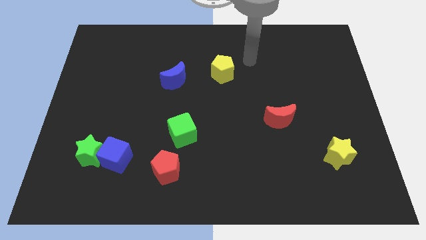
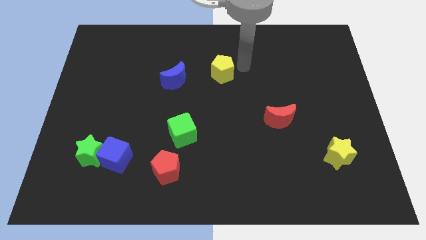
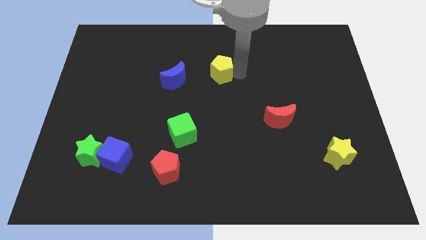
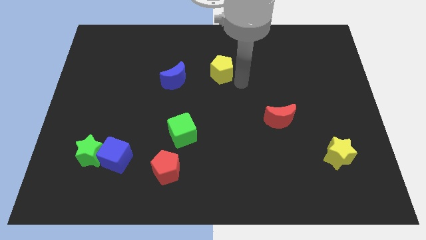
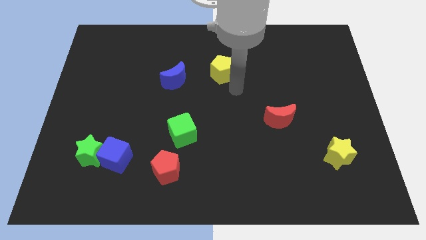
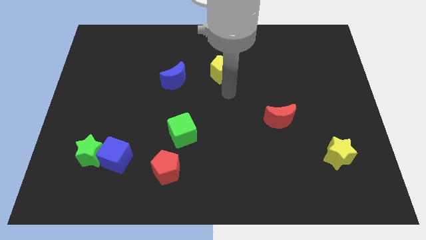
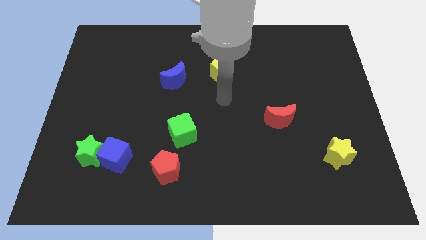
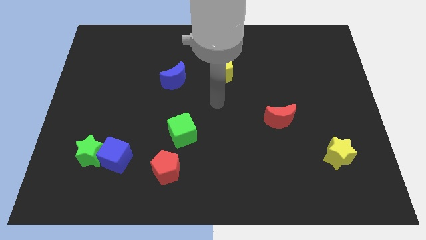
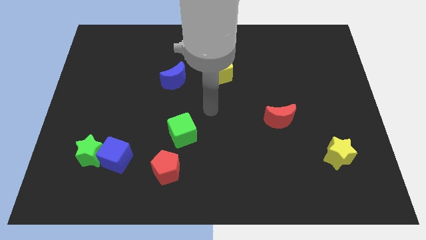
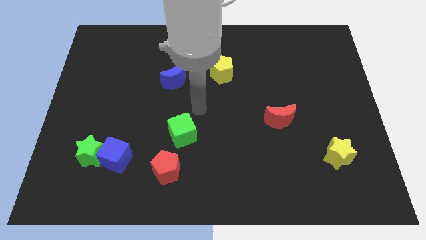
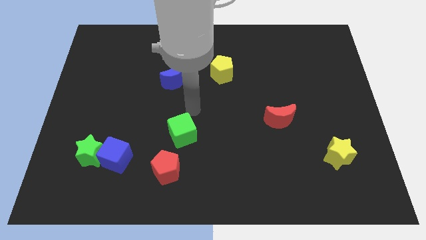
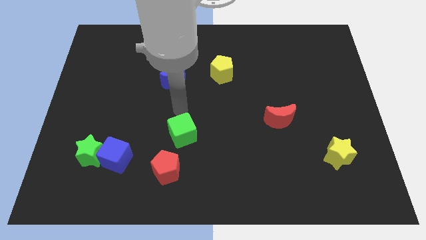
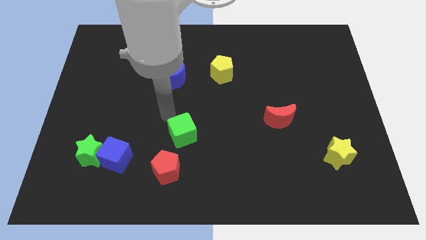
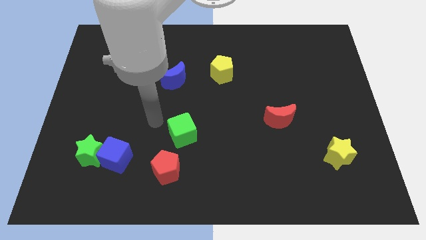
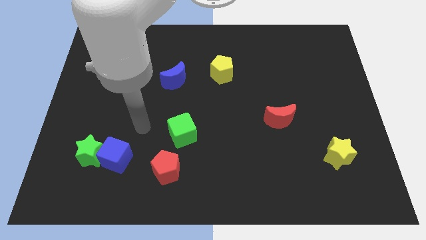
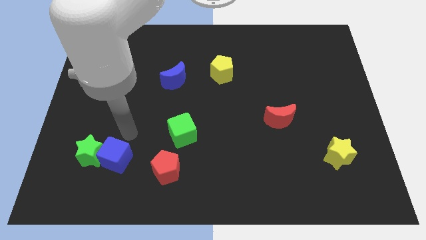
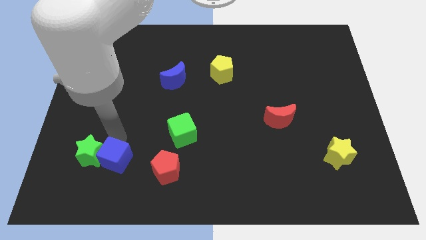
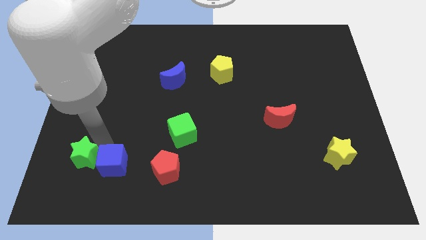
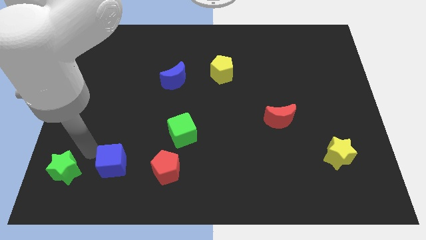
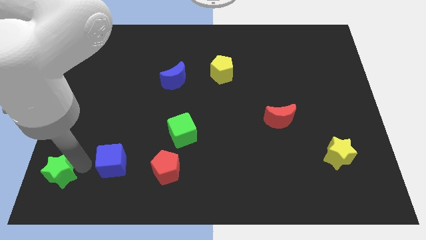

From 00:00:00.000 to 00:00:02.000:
pull the blue cube apart from the green star

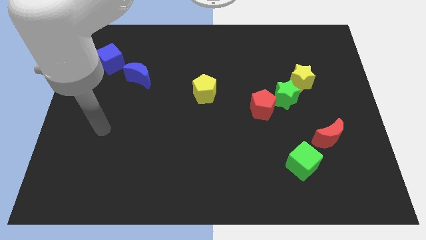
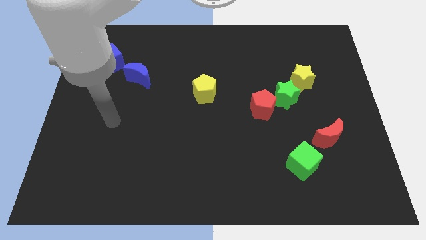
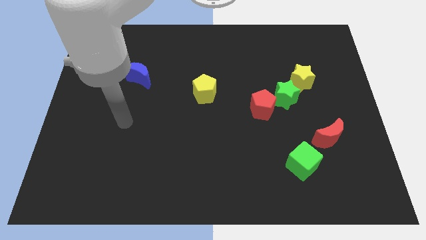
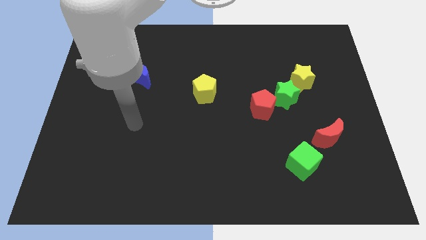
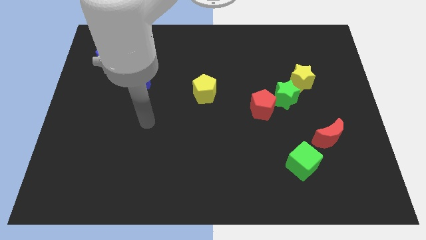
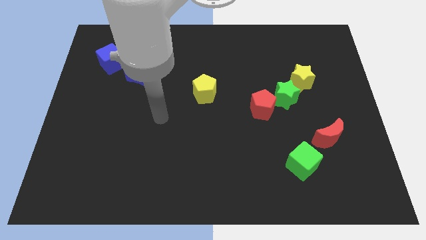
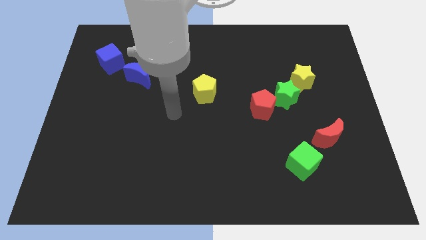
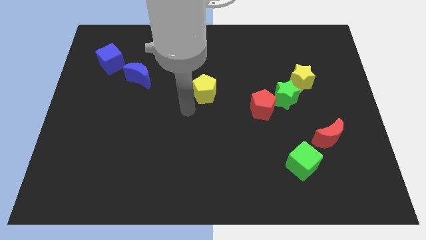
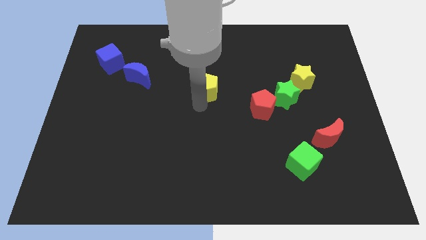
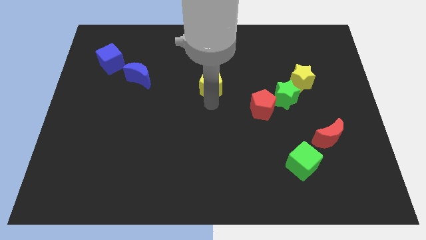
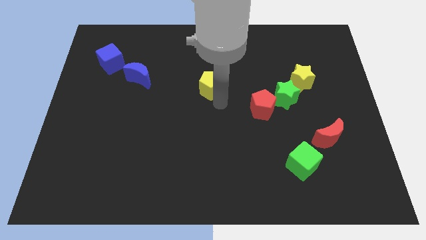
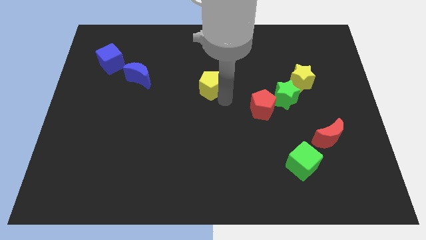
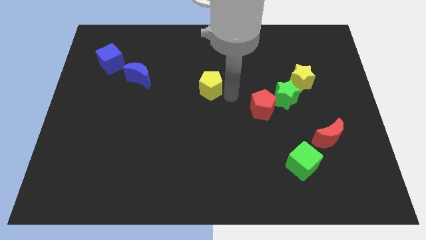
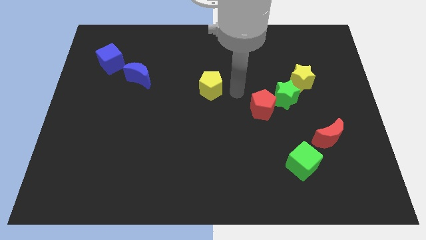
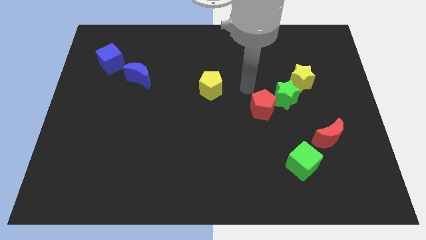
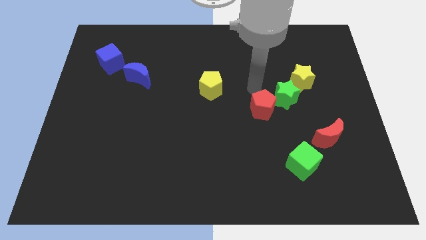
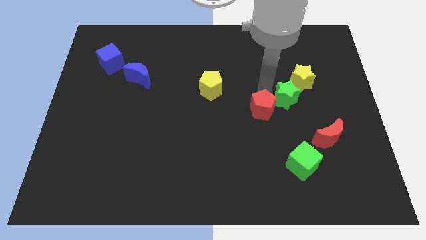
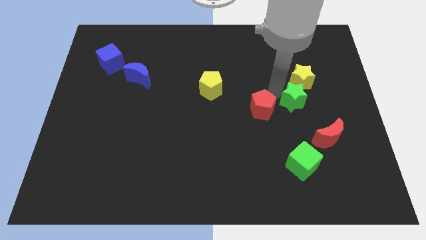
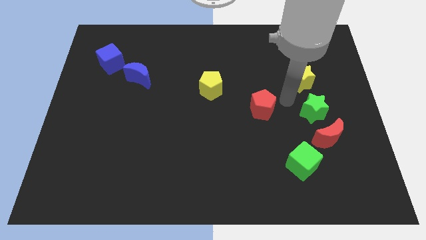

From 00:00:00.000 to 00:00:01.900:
move the red pentagon away from the green star

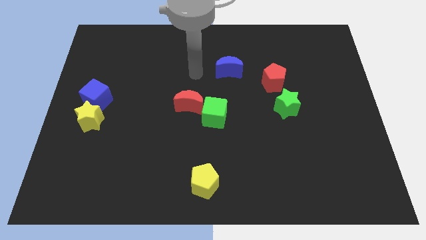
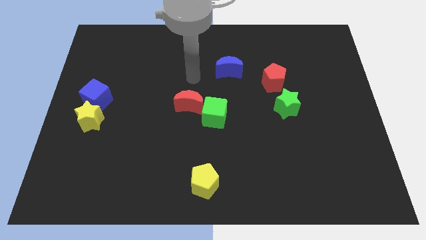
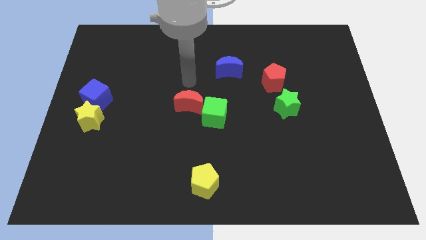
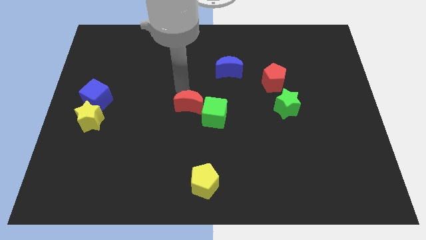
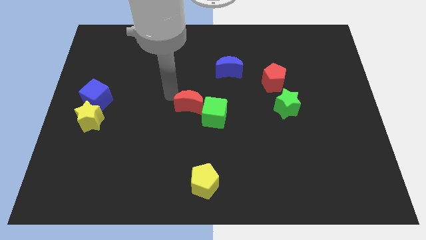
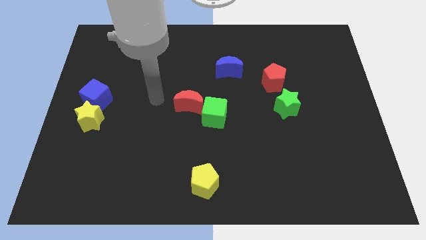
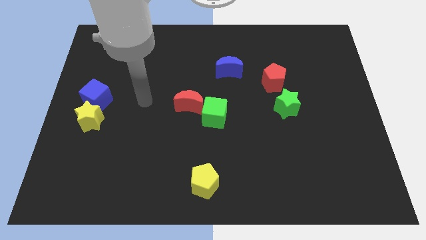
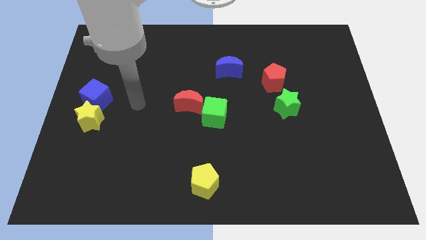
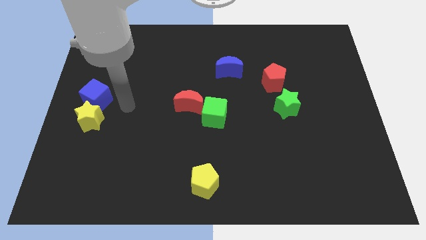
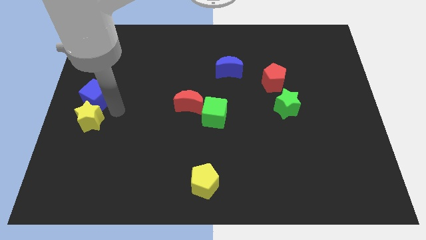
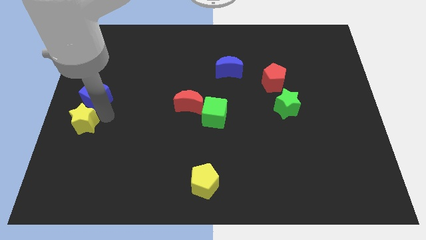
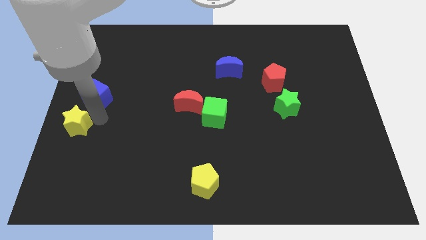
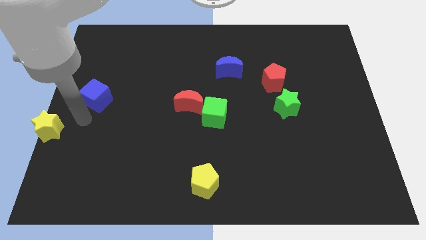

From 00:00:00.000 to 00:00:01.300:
separate the blue cube from the yellow star

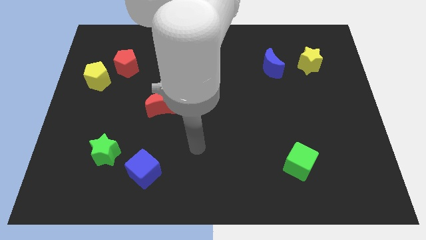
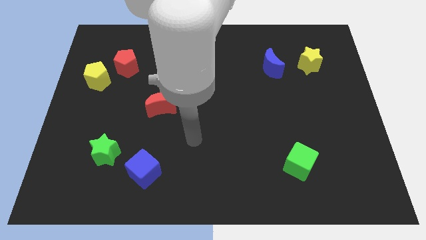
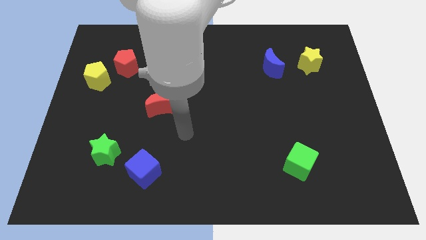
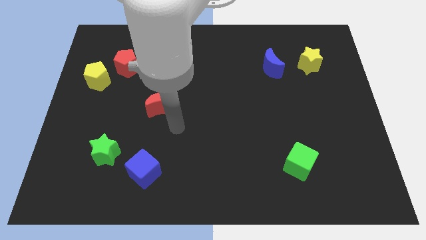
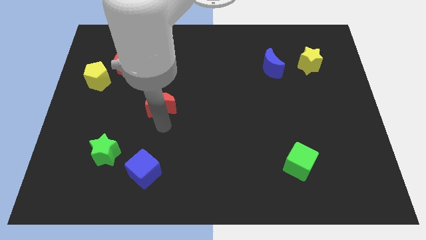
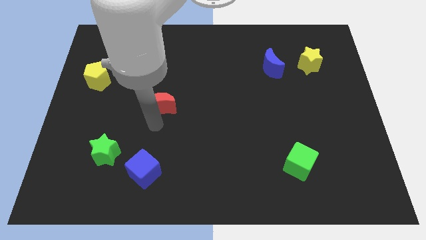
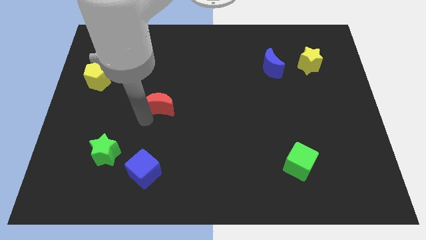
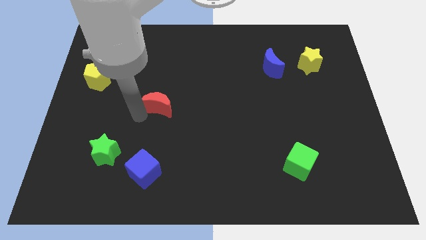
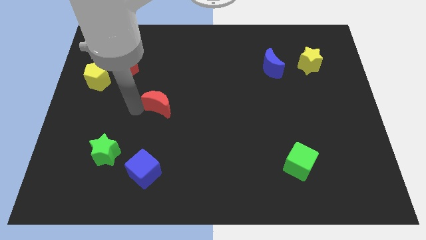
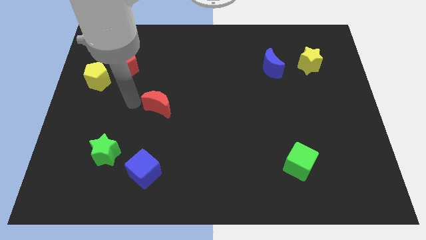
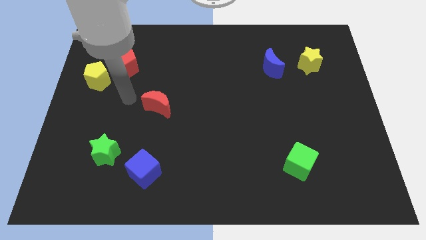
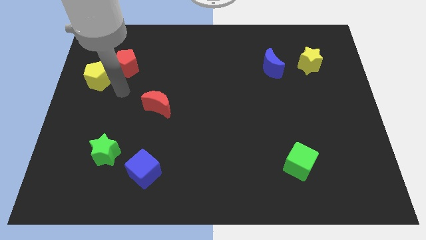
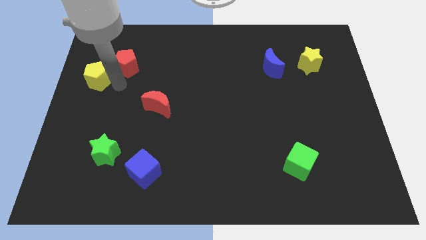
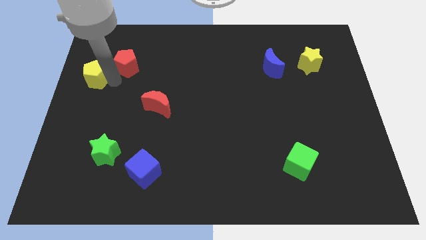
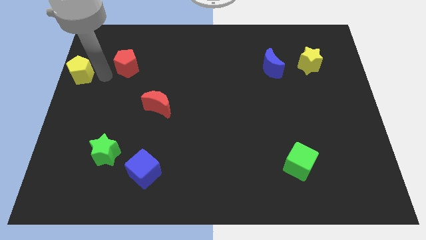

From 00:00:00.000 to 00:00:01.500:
move the red pentagon away from the yellow pentagon

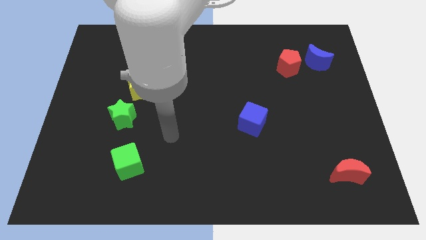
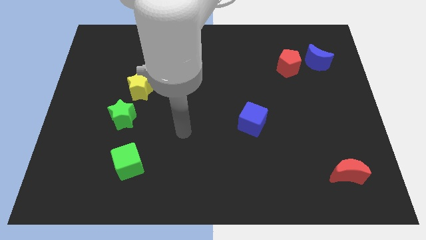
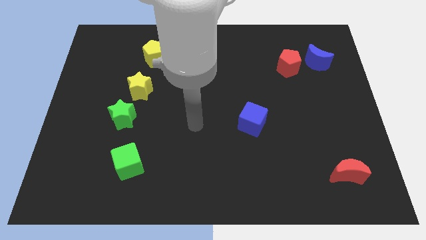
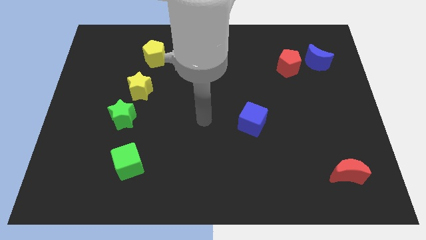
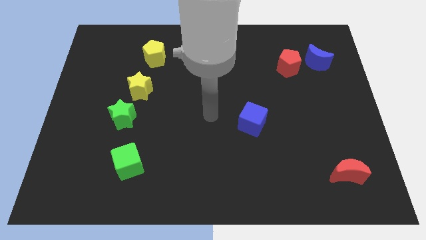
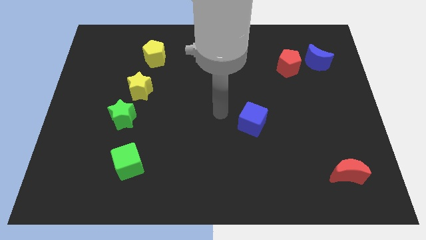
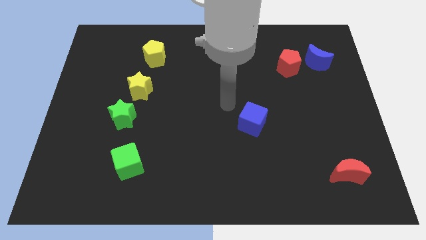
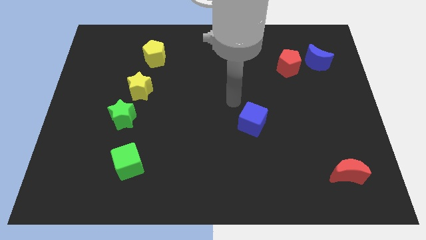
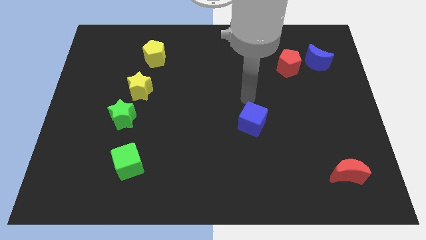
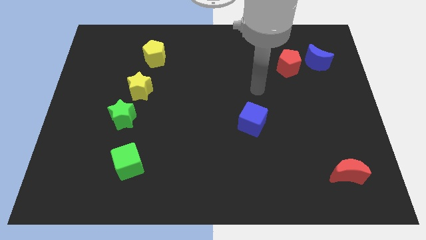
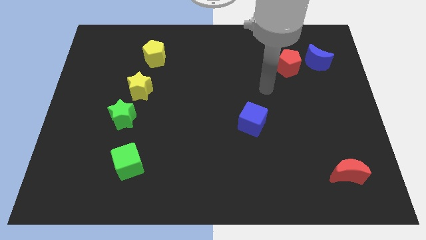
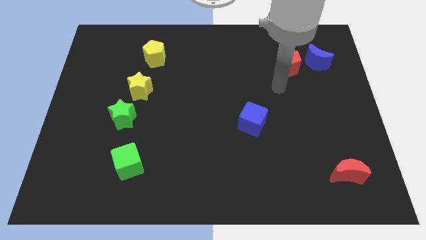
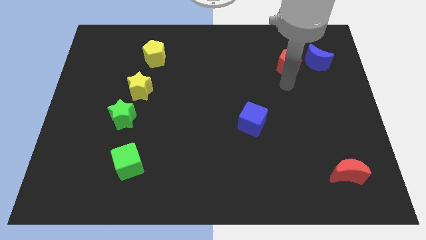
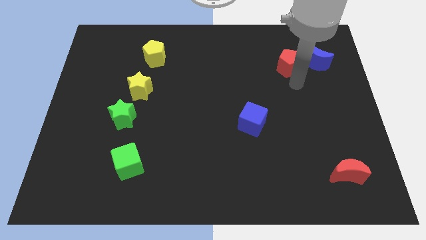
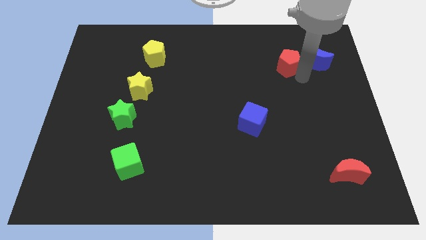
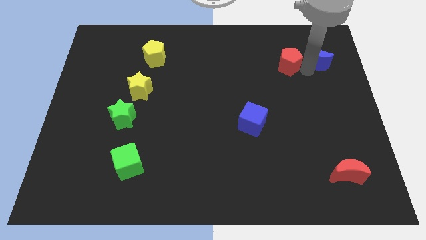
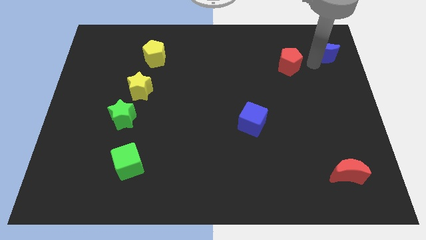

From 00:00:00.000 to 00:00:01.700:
move the red pentagon away from the blue moon

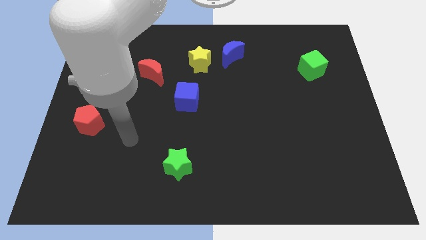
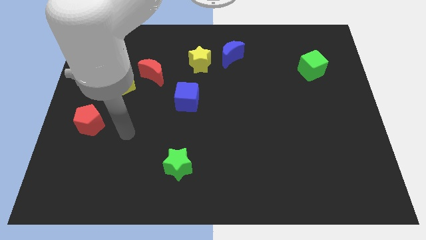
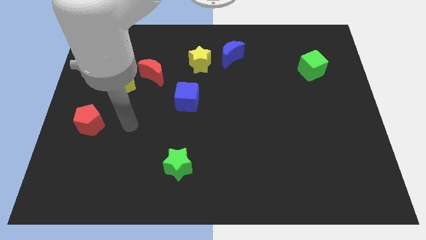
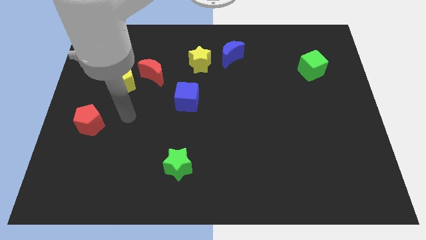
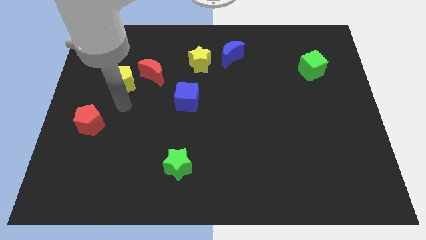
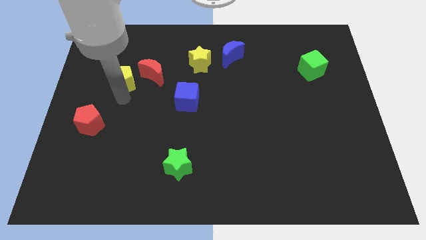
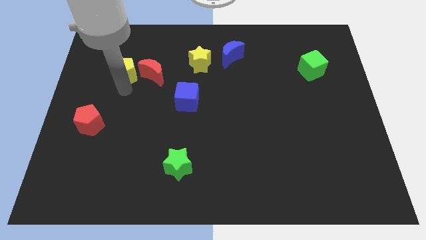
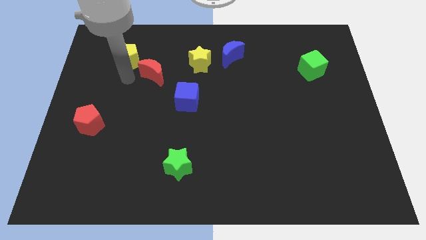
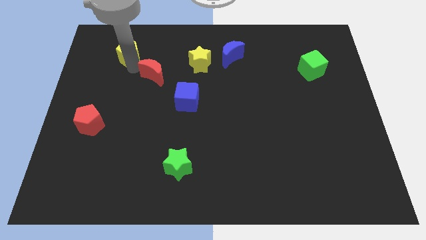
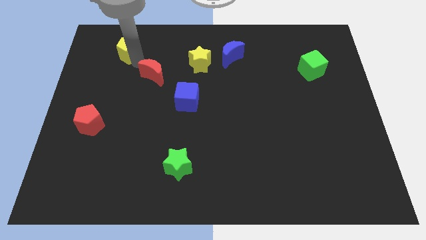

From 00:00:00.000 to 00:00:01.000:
move the red moon away from the yellow pentagon
